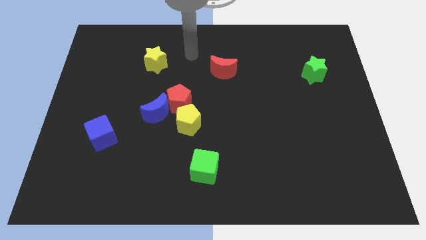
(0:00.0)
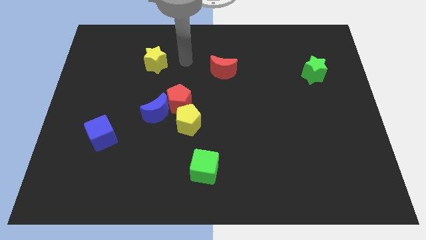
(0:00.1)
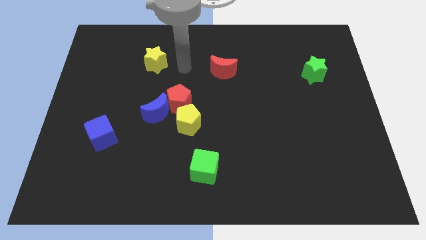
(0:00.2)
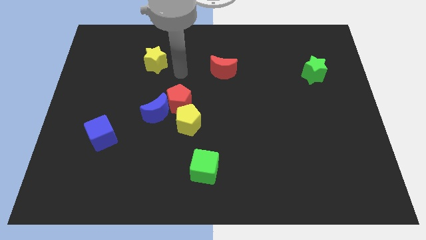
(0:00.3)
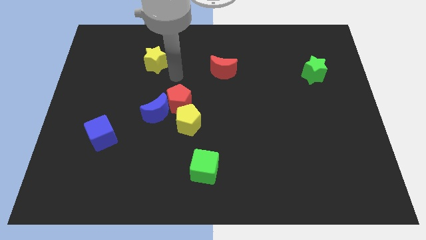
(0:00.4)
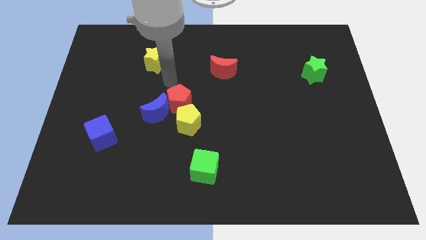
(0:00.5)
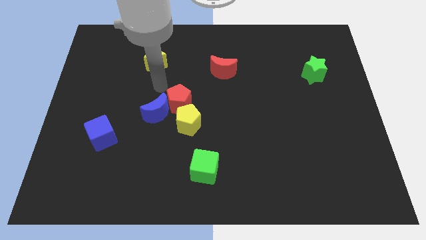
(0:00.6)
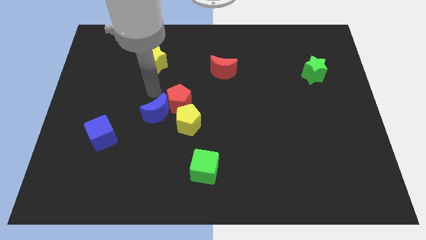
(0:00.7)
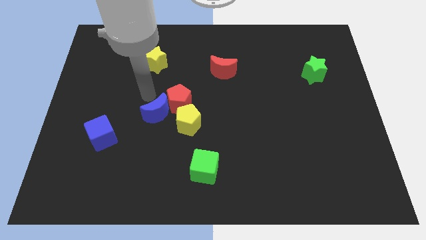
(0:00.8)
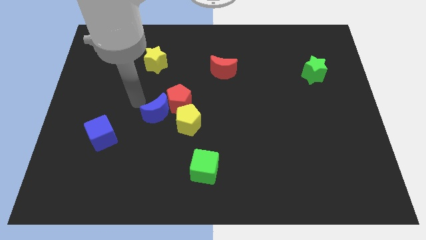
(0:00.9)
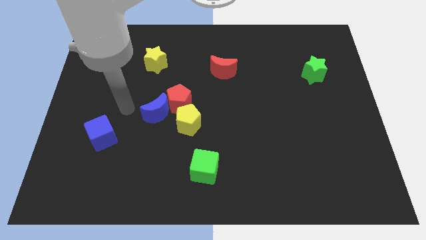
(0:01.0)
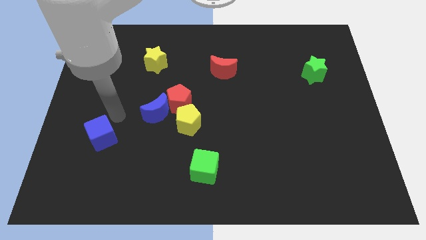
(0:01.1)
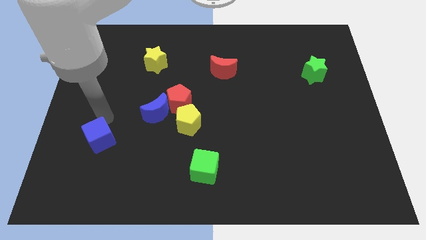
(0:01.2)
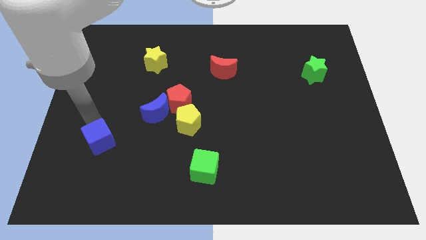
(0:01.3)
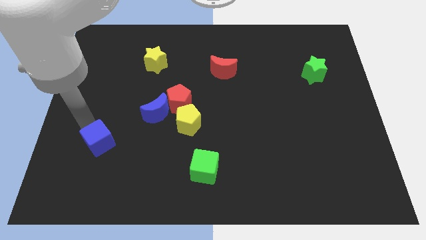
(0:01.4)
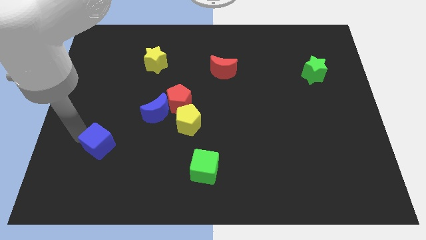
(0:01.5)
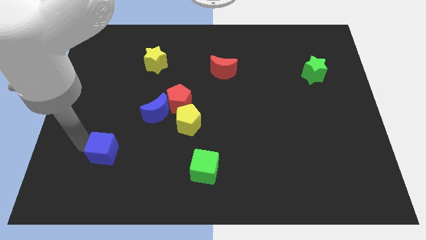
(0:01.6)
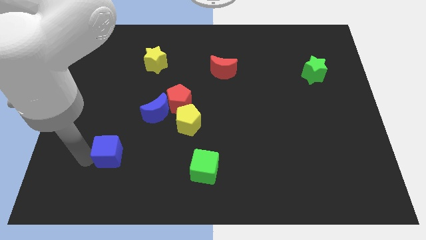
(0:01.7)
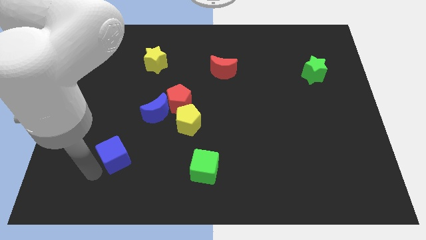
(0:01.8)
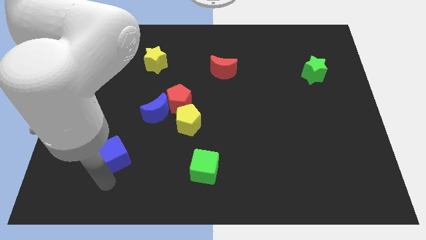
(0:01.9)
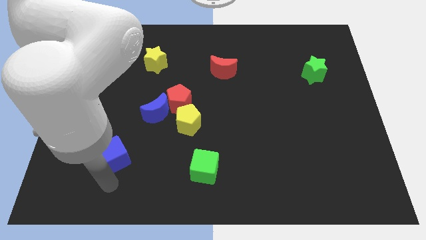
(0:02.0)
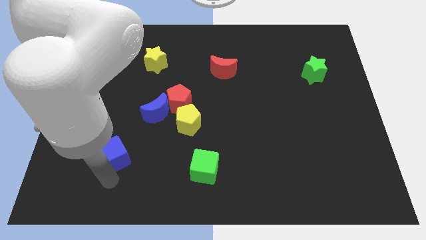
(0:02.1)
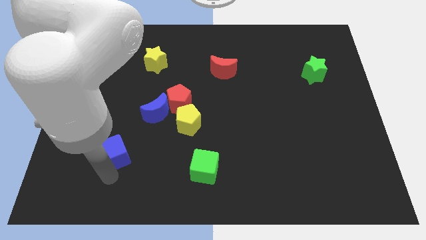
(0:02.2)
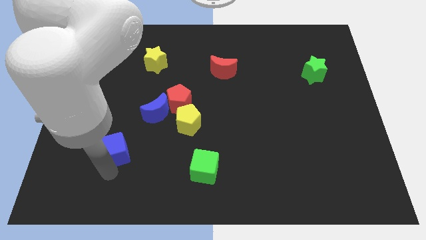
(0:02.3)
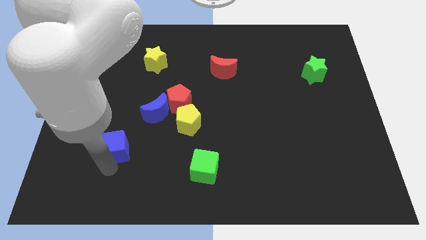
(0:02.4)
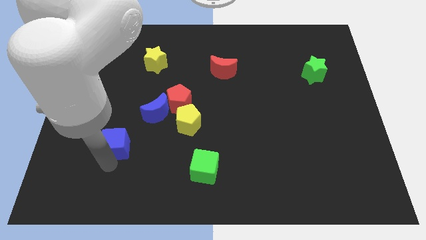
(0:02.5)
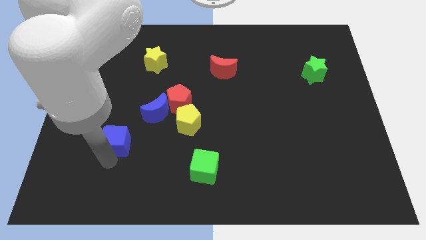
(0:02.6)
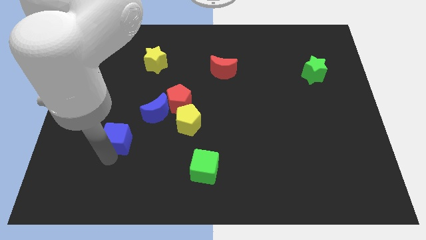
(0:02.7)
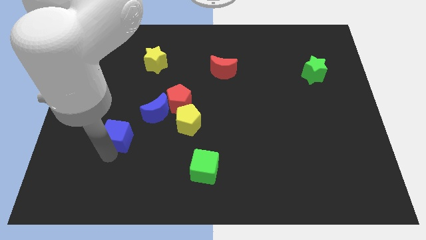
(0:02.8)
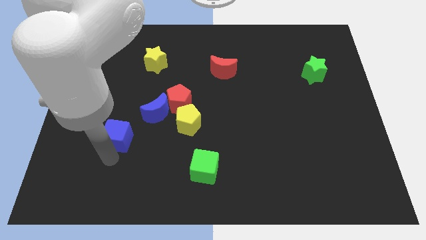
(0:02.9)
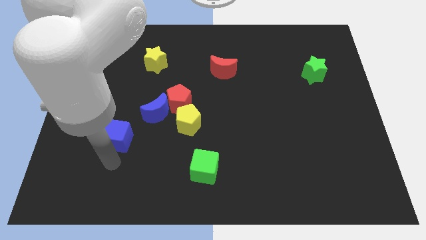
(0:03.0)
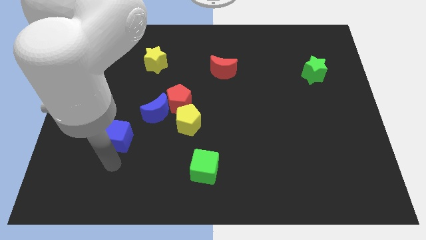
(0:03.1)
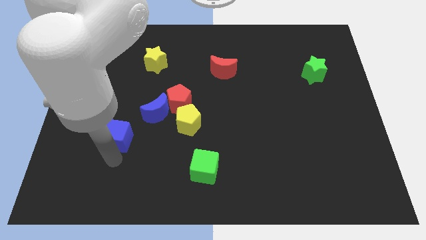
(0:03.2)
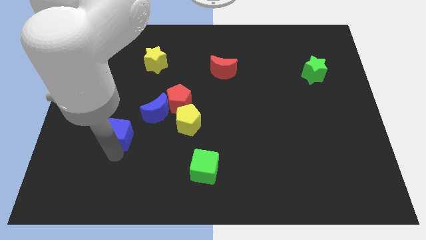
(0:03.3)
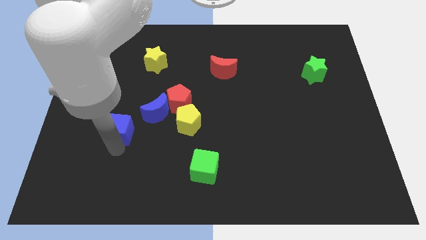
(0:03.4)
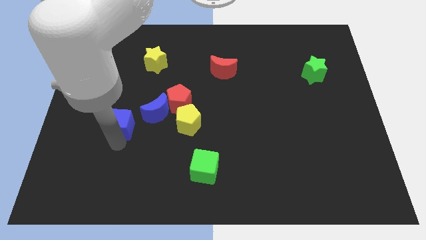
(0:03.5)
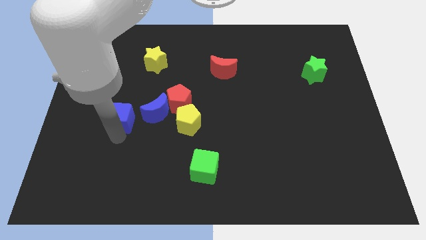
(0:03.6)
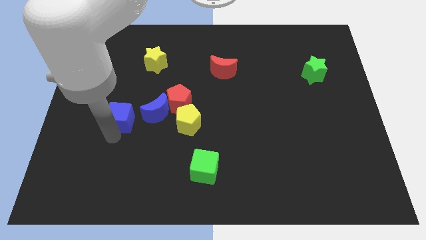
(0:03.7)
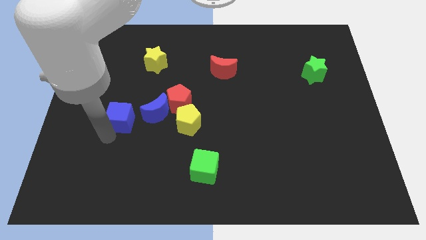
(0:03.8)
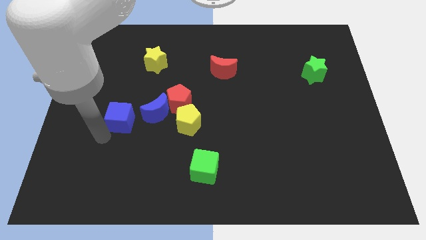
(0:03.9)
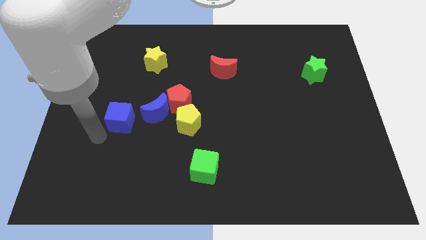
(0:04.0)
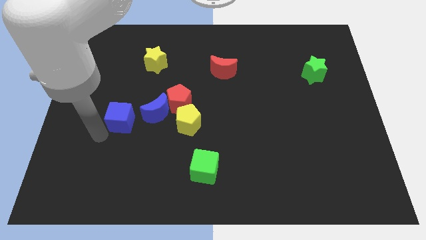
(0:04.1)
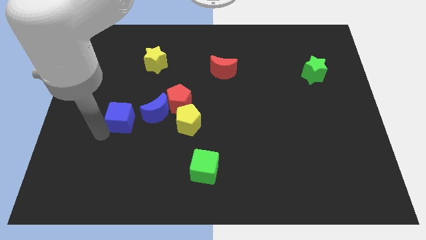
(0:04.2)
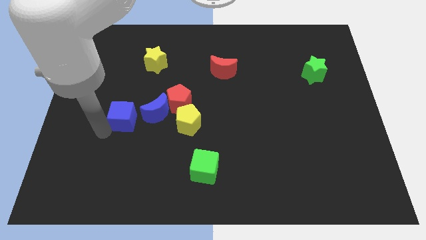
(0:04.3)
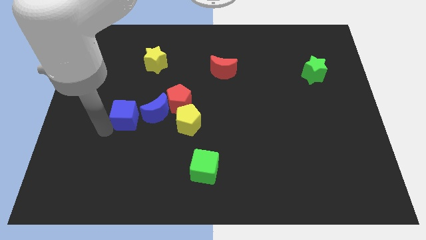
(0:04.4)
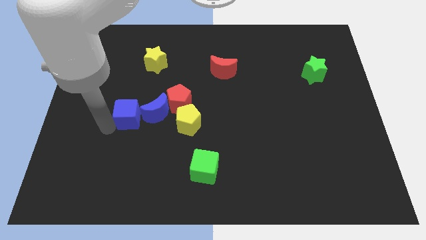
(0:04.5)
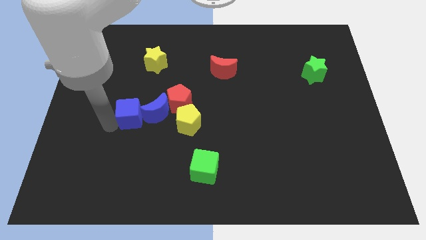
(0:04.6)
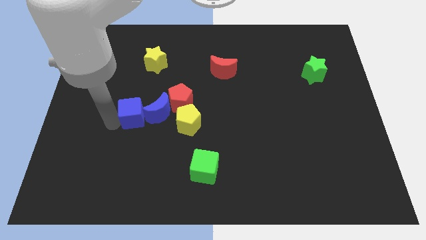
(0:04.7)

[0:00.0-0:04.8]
slide the blue cube to the top left side of the blue moon

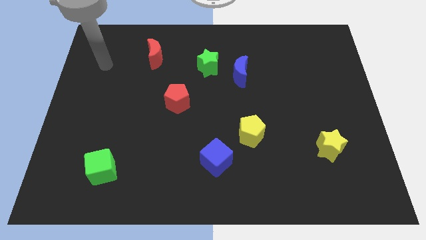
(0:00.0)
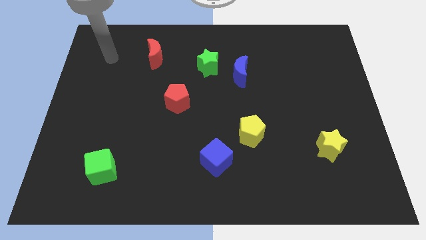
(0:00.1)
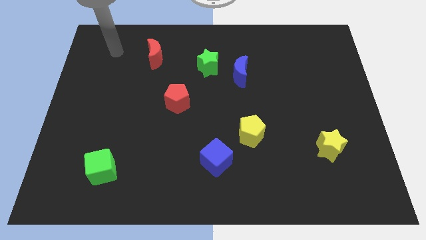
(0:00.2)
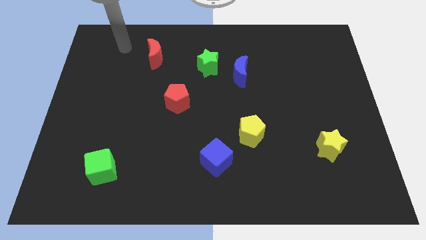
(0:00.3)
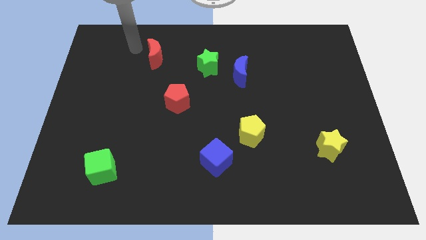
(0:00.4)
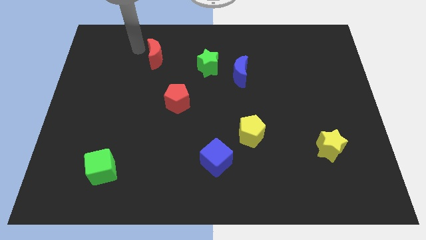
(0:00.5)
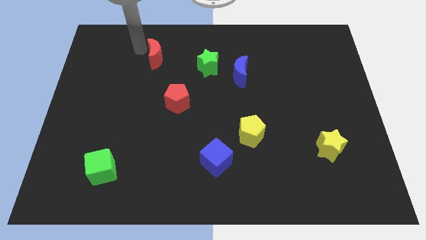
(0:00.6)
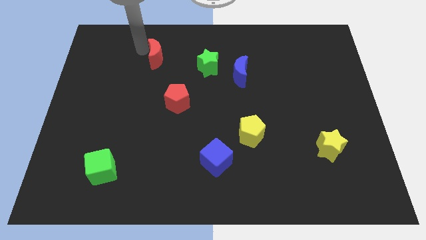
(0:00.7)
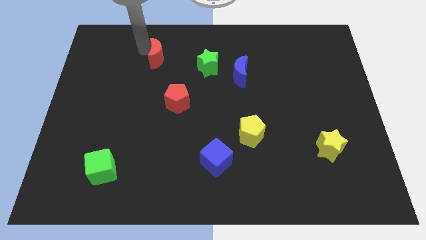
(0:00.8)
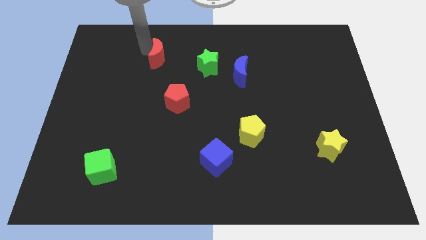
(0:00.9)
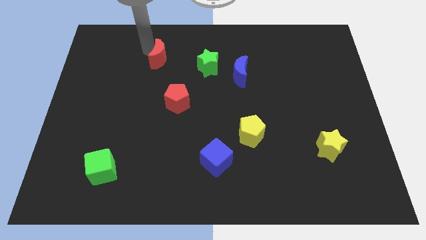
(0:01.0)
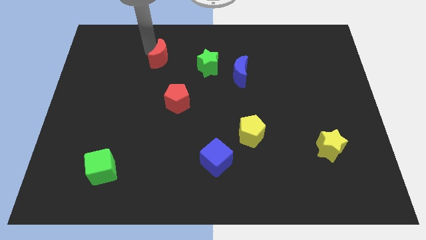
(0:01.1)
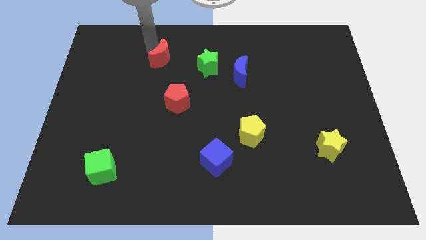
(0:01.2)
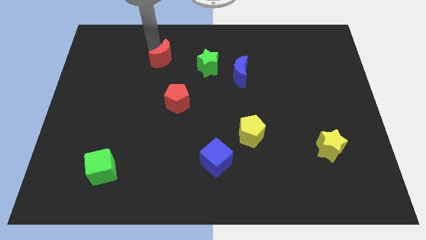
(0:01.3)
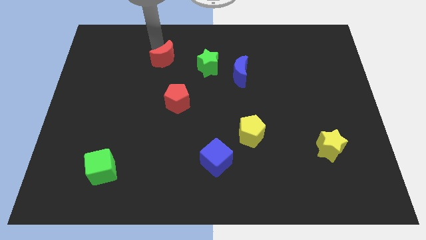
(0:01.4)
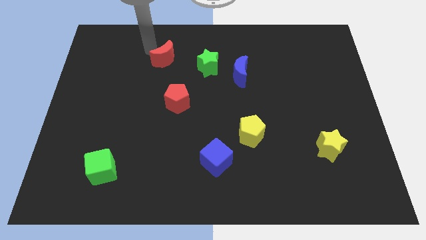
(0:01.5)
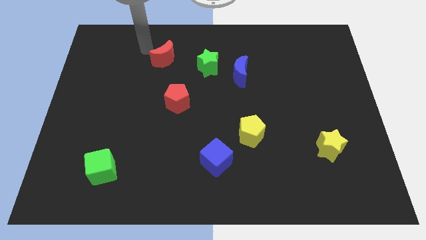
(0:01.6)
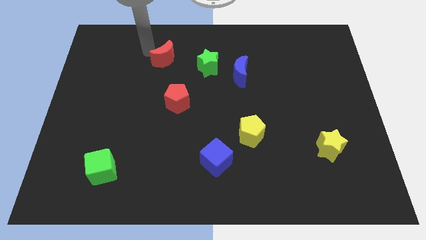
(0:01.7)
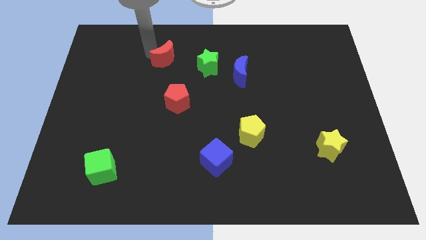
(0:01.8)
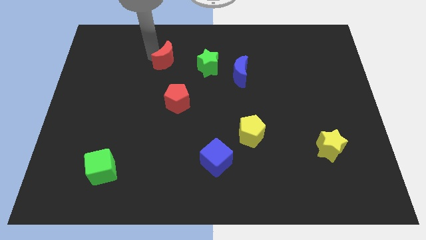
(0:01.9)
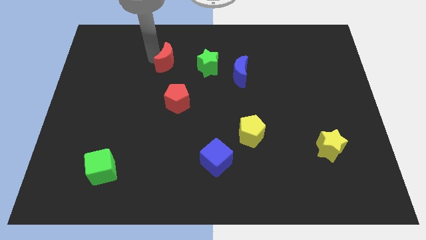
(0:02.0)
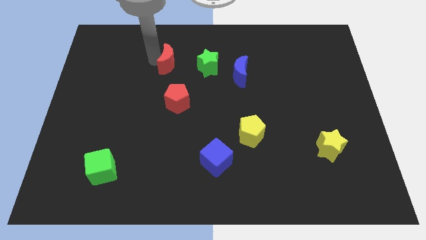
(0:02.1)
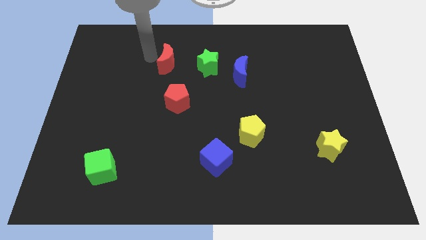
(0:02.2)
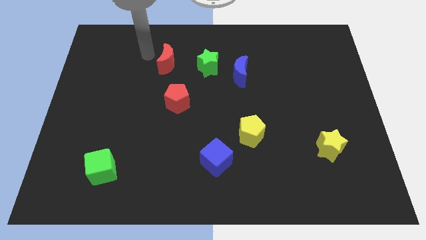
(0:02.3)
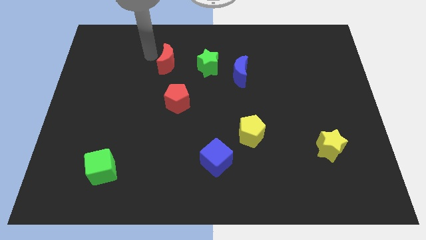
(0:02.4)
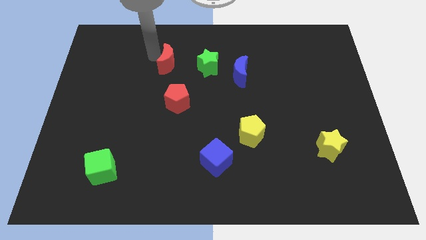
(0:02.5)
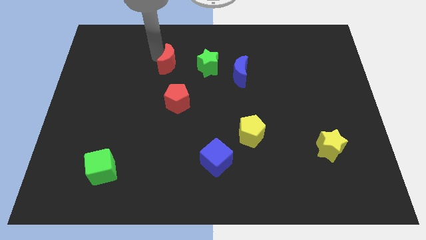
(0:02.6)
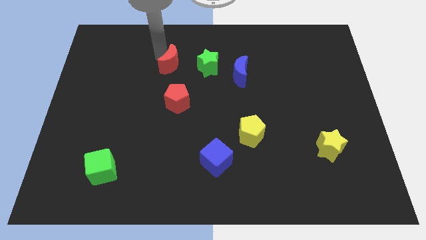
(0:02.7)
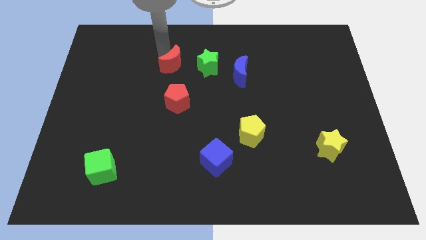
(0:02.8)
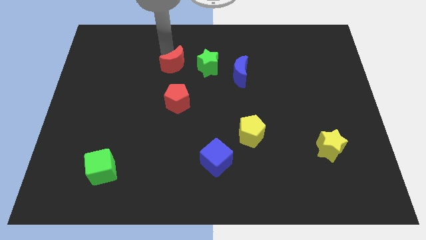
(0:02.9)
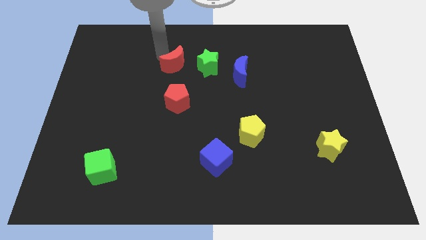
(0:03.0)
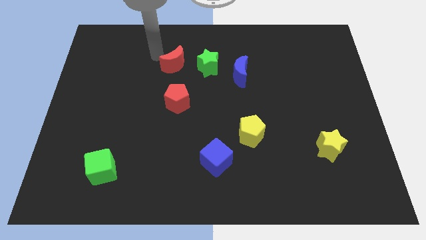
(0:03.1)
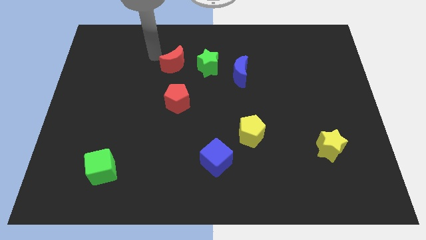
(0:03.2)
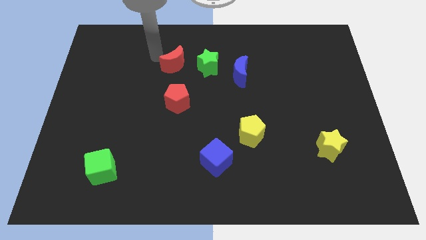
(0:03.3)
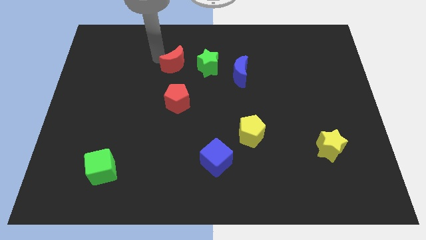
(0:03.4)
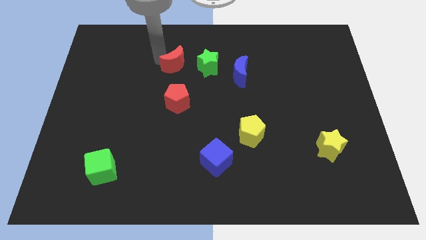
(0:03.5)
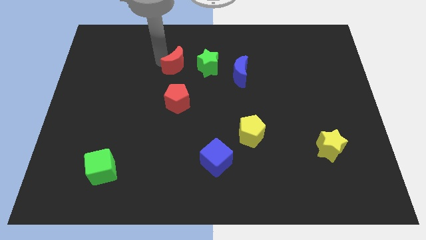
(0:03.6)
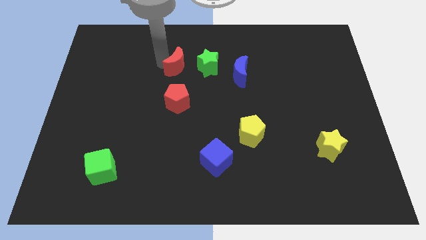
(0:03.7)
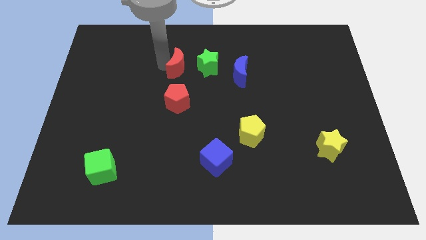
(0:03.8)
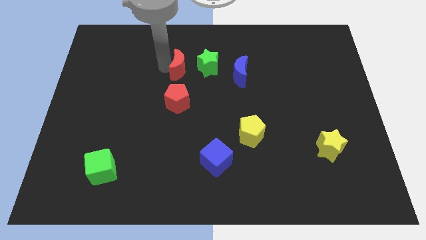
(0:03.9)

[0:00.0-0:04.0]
push the red moon just left of the blue moon
